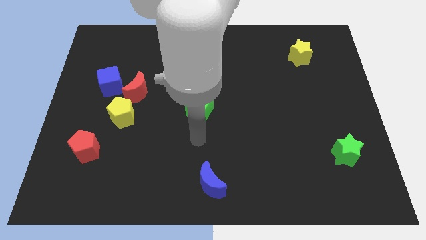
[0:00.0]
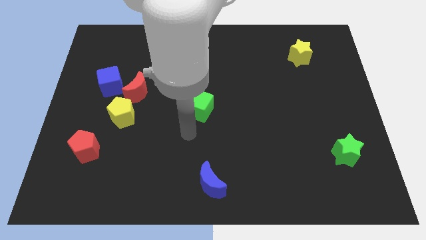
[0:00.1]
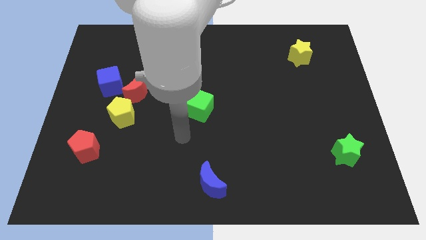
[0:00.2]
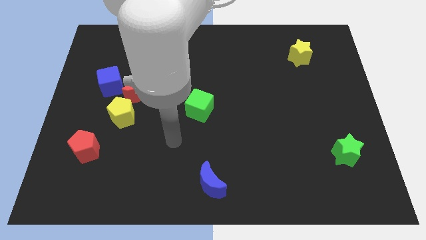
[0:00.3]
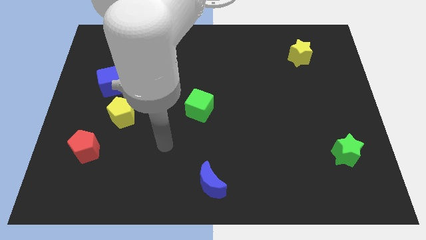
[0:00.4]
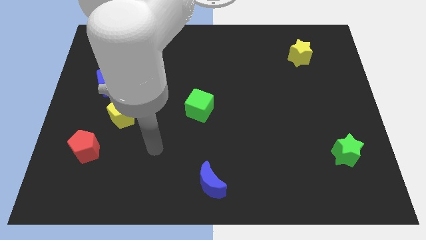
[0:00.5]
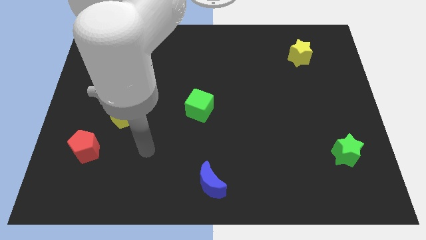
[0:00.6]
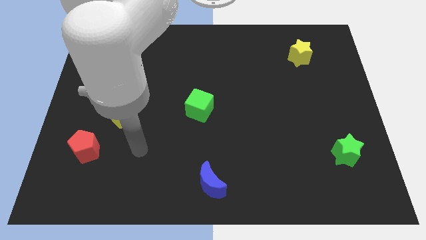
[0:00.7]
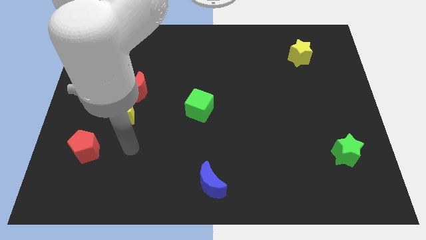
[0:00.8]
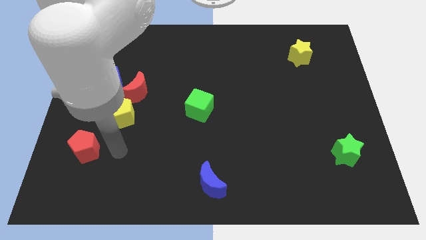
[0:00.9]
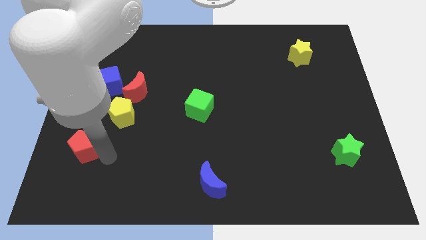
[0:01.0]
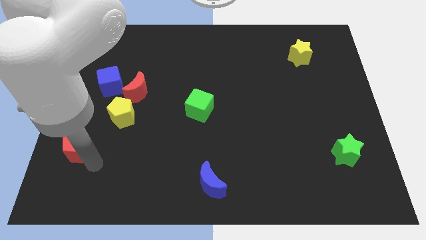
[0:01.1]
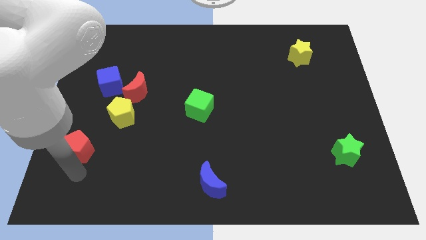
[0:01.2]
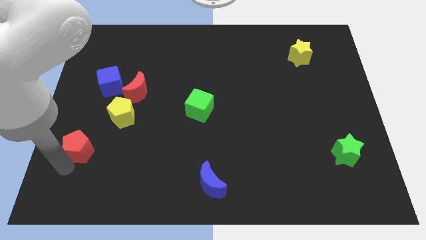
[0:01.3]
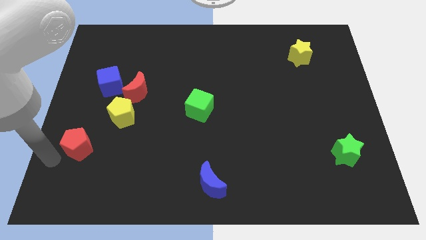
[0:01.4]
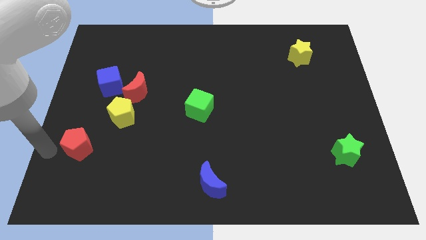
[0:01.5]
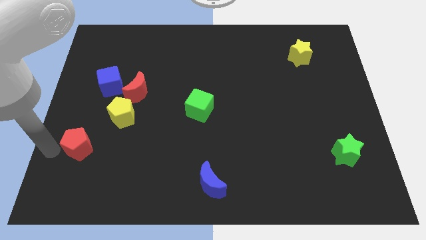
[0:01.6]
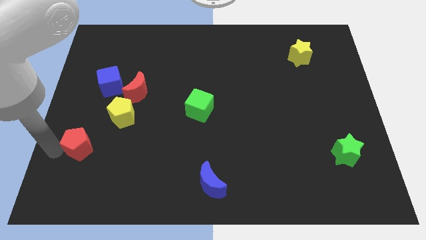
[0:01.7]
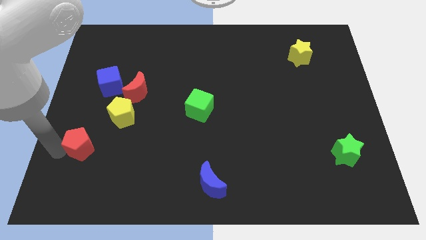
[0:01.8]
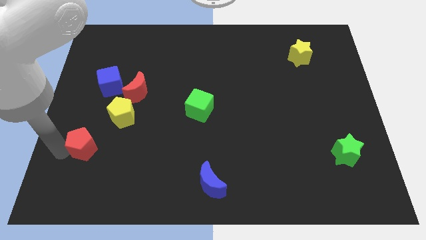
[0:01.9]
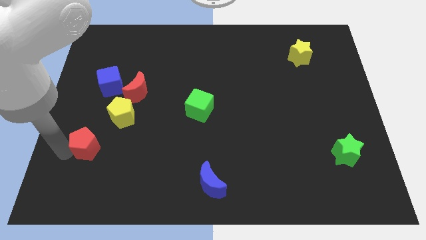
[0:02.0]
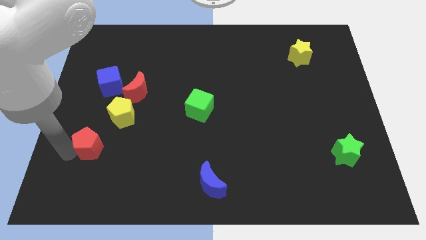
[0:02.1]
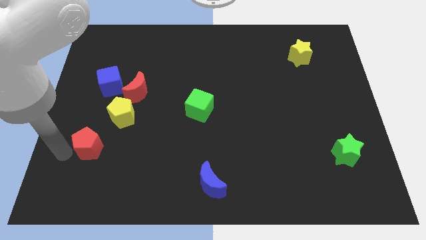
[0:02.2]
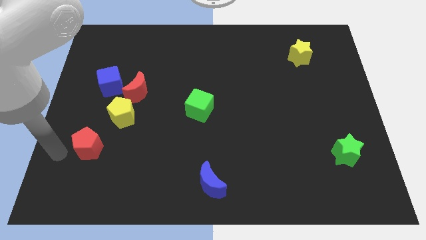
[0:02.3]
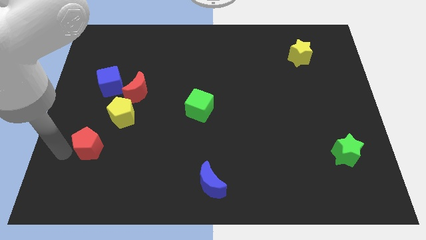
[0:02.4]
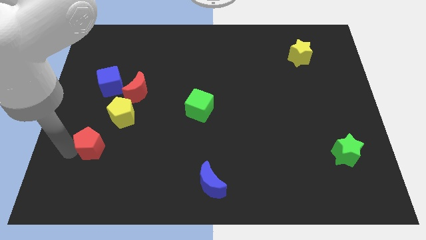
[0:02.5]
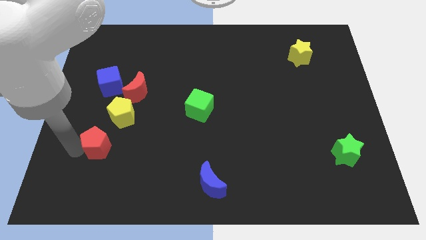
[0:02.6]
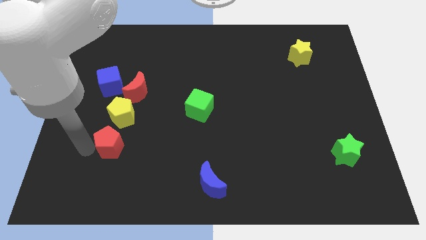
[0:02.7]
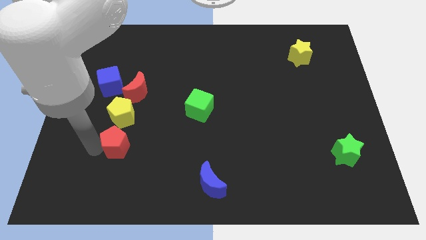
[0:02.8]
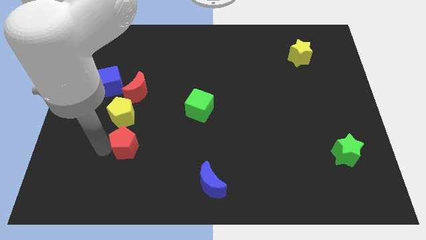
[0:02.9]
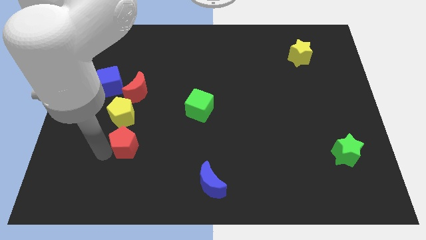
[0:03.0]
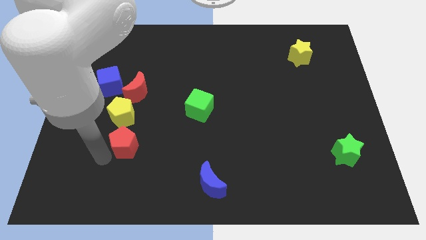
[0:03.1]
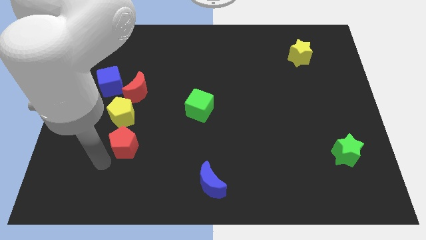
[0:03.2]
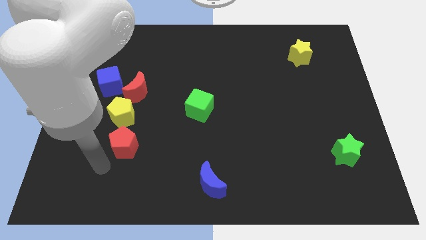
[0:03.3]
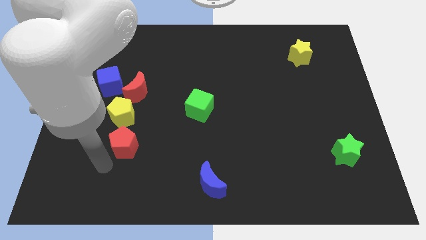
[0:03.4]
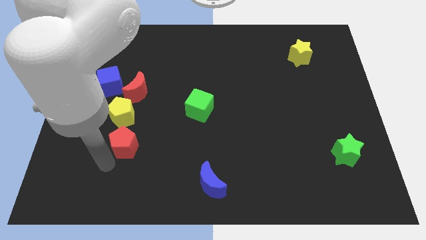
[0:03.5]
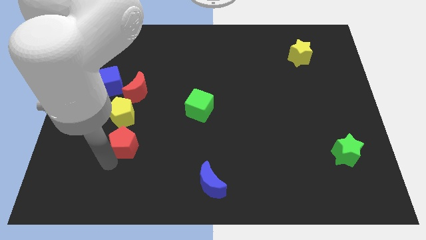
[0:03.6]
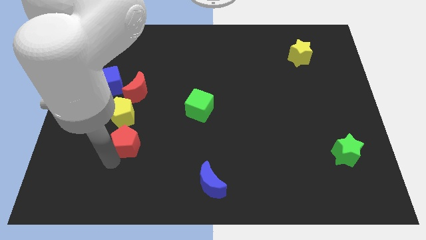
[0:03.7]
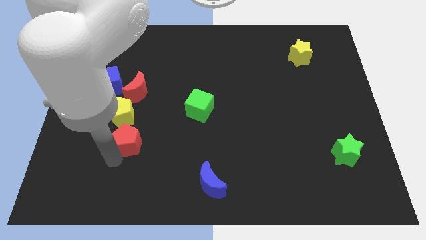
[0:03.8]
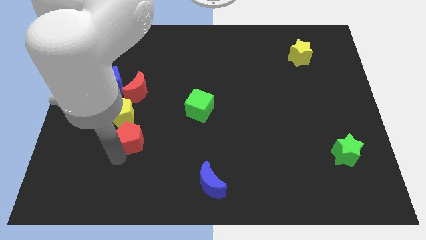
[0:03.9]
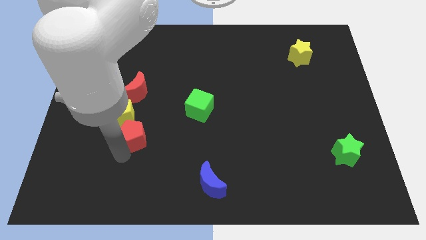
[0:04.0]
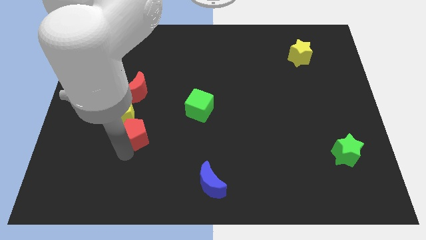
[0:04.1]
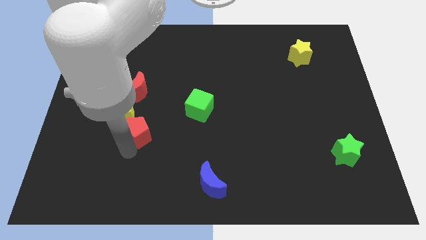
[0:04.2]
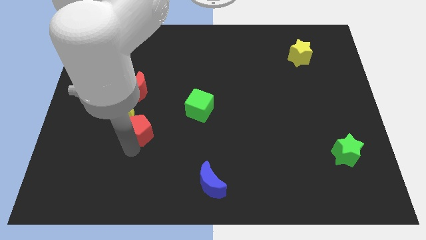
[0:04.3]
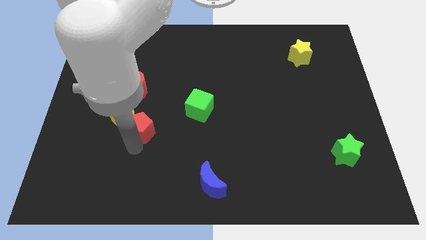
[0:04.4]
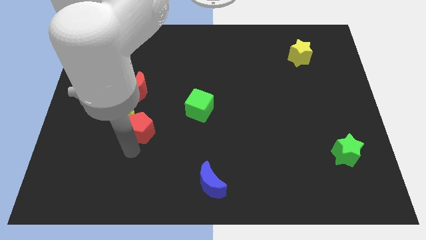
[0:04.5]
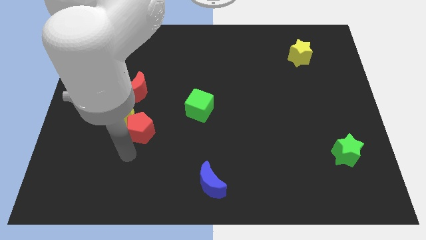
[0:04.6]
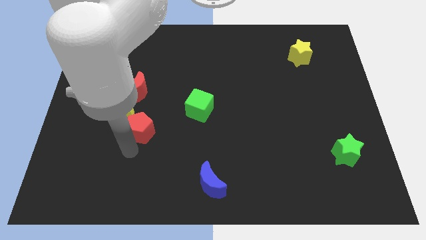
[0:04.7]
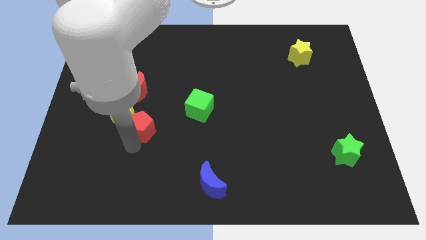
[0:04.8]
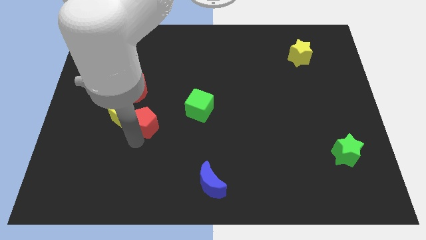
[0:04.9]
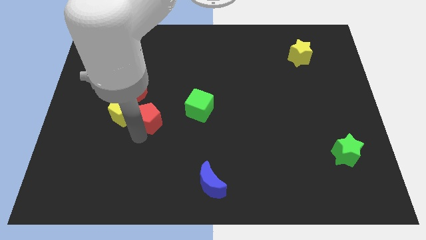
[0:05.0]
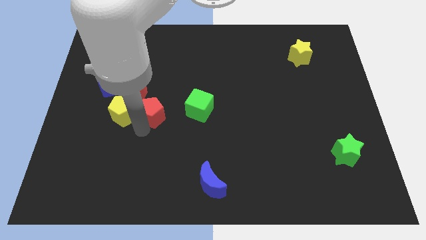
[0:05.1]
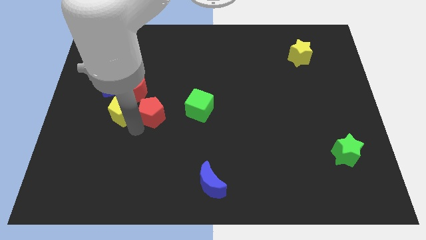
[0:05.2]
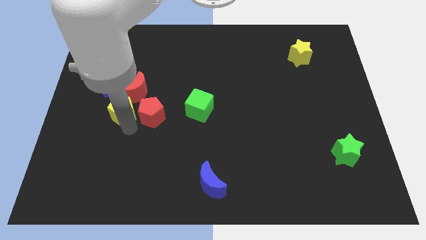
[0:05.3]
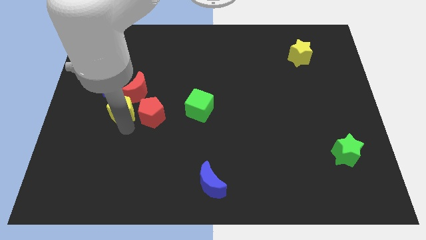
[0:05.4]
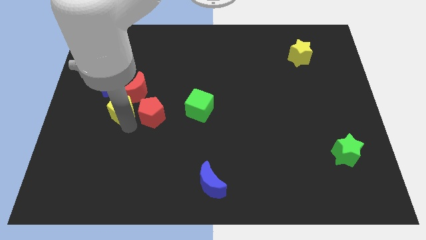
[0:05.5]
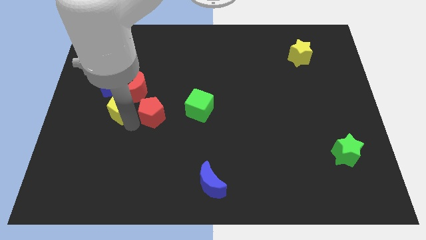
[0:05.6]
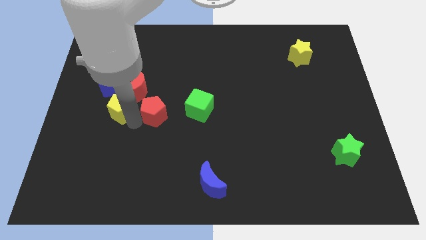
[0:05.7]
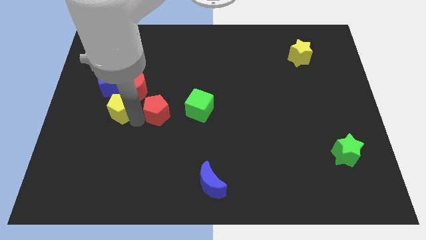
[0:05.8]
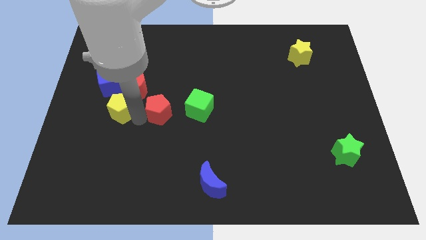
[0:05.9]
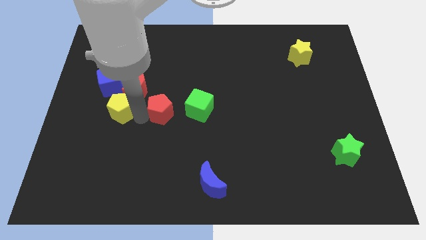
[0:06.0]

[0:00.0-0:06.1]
push the red pentagon to the middle
